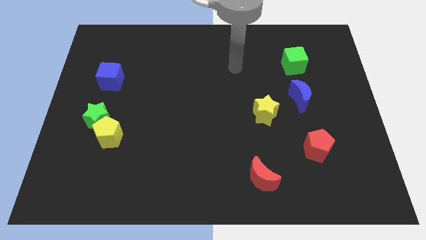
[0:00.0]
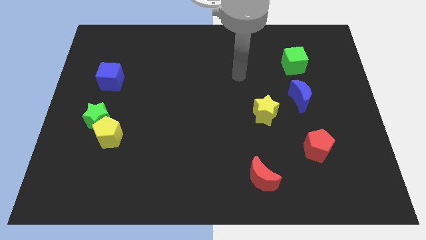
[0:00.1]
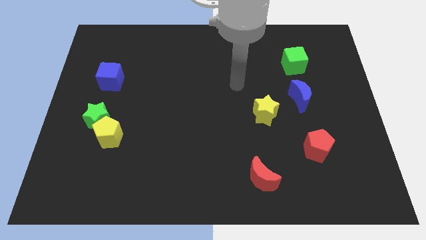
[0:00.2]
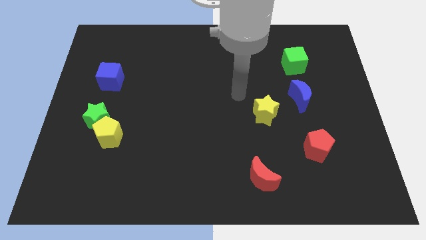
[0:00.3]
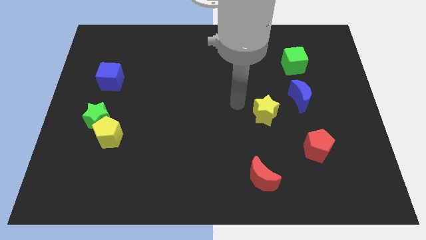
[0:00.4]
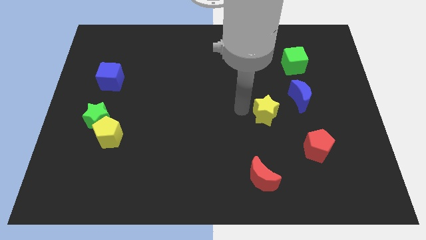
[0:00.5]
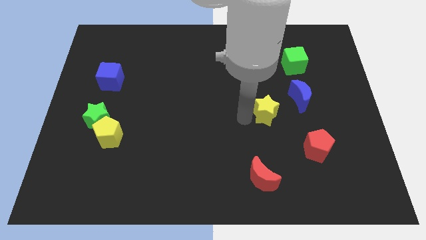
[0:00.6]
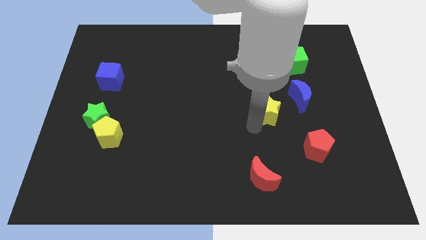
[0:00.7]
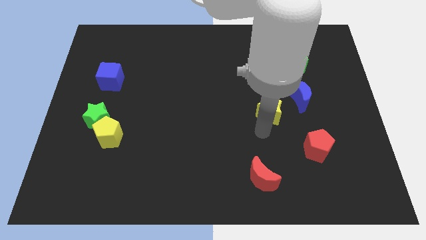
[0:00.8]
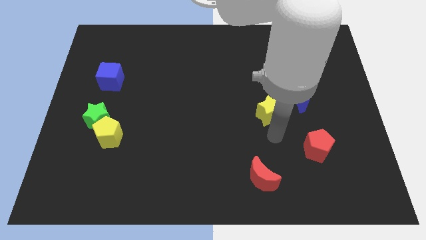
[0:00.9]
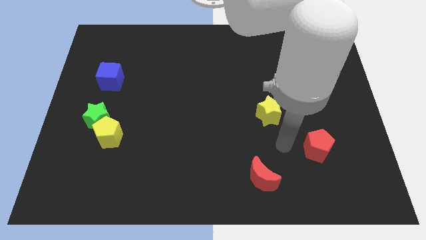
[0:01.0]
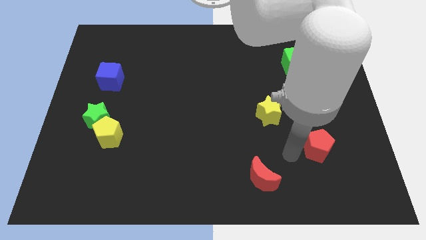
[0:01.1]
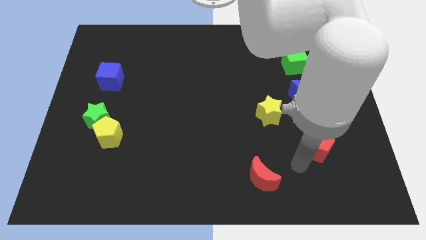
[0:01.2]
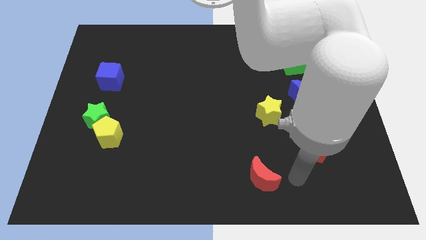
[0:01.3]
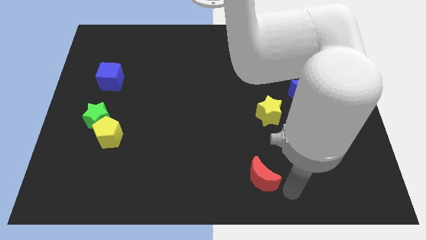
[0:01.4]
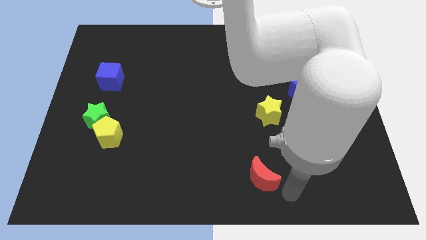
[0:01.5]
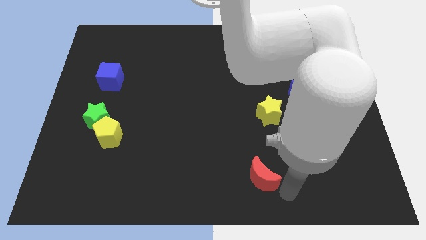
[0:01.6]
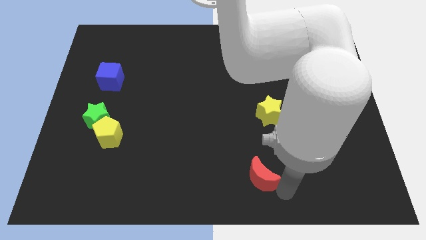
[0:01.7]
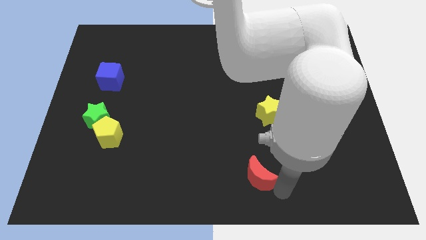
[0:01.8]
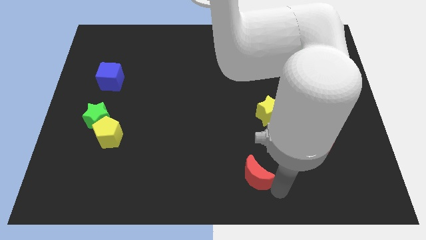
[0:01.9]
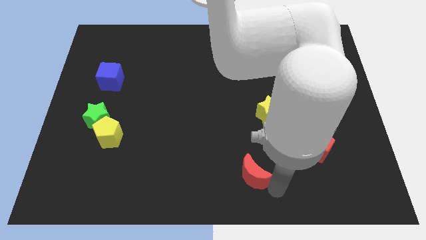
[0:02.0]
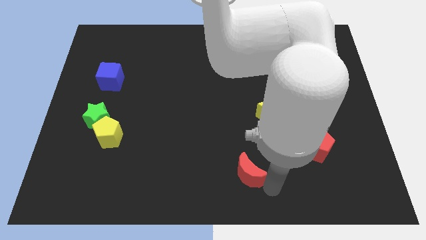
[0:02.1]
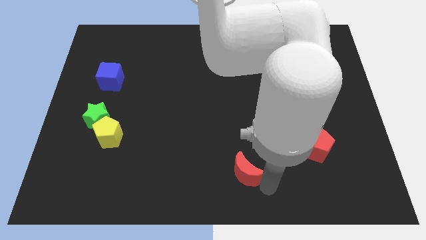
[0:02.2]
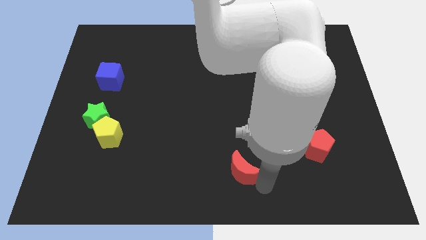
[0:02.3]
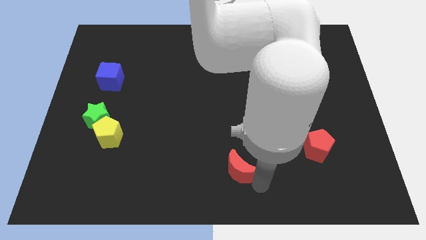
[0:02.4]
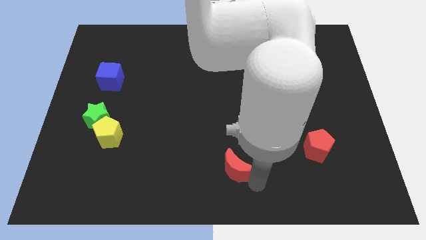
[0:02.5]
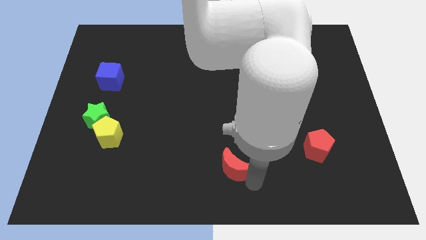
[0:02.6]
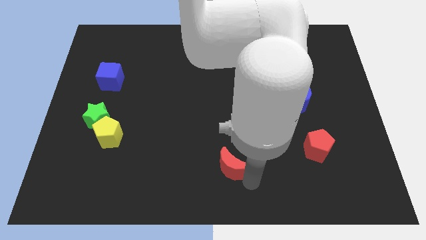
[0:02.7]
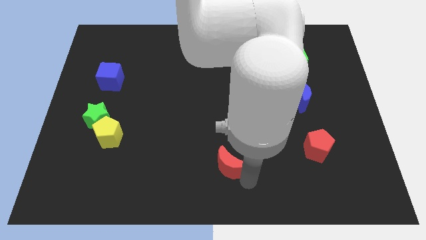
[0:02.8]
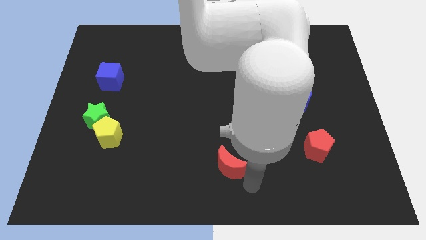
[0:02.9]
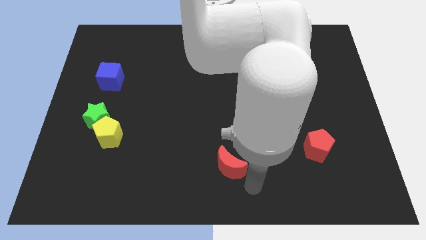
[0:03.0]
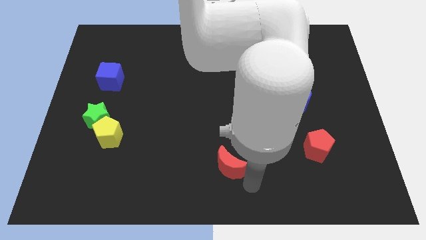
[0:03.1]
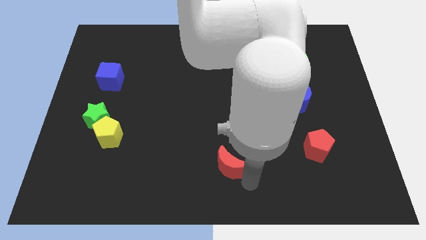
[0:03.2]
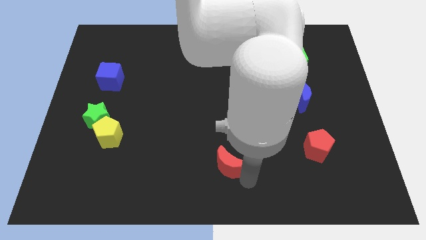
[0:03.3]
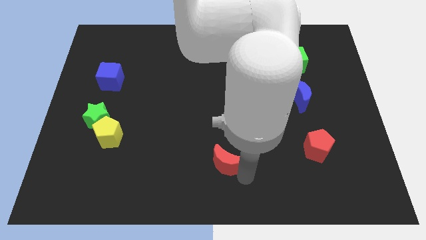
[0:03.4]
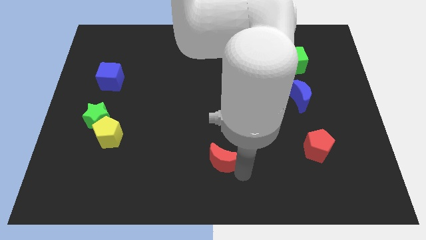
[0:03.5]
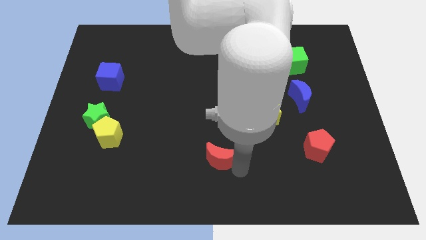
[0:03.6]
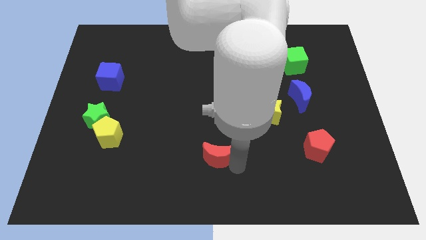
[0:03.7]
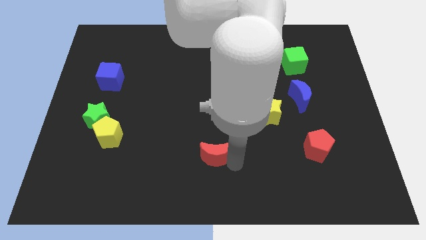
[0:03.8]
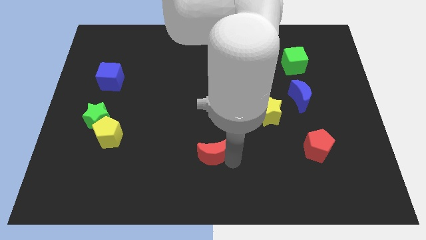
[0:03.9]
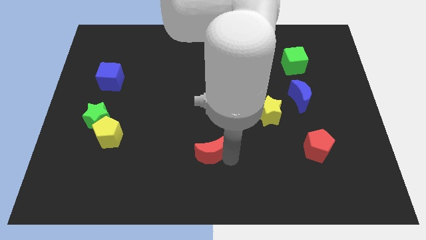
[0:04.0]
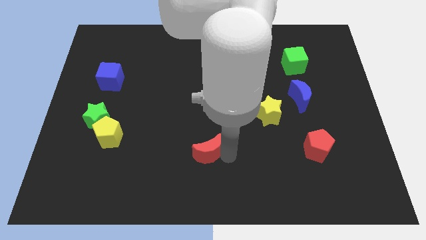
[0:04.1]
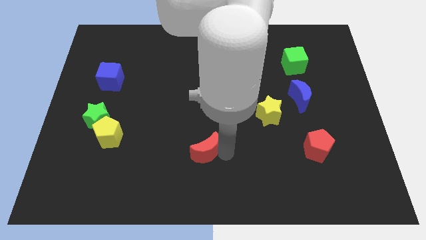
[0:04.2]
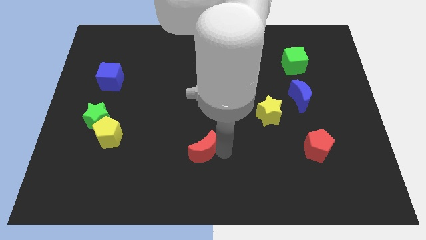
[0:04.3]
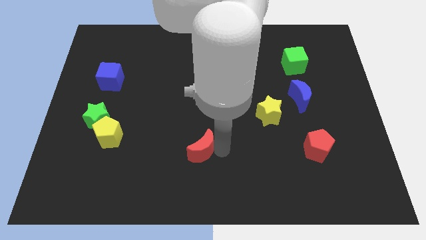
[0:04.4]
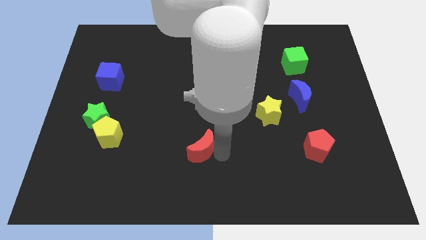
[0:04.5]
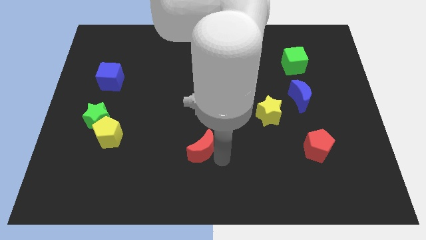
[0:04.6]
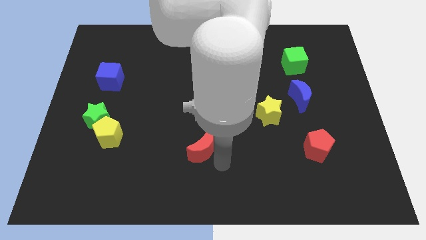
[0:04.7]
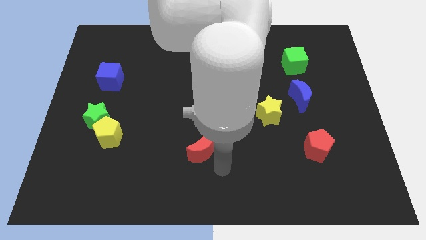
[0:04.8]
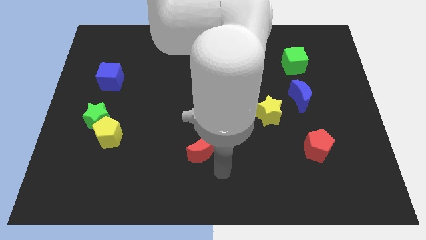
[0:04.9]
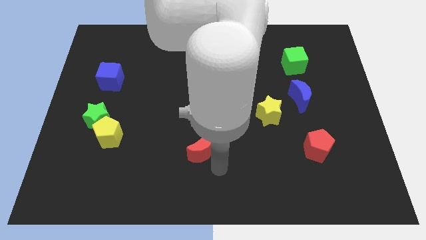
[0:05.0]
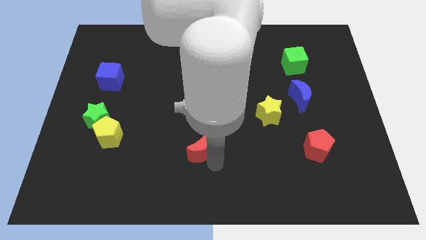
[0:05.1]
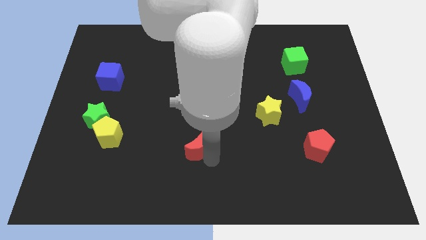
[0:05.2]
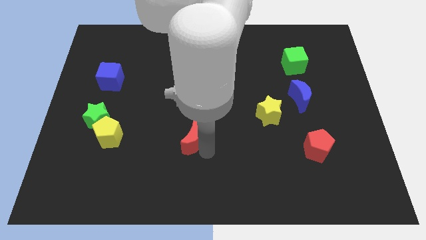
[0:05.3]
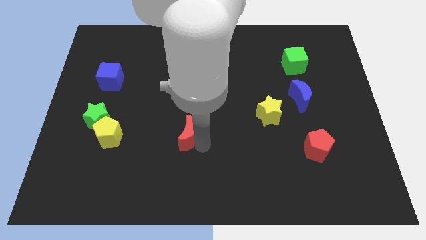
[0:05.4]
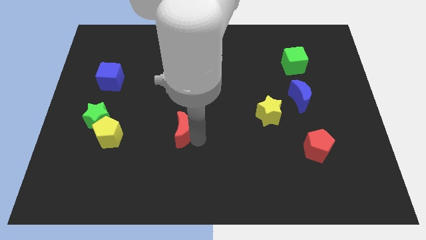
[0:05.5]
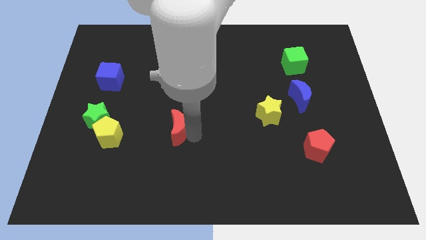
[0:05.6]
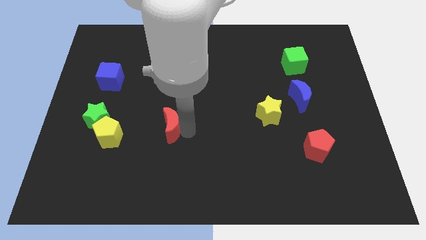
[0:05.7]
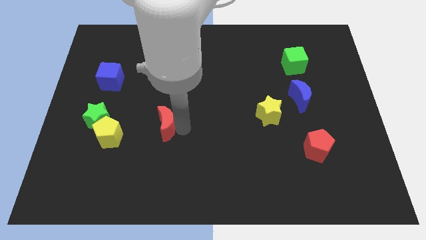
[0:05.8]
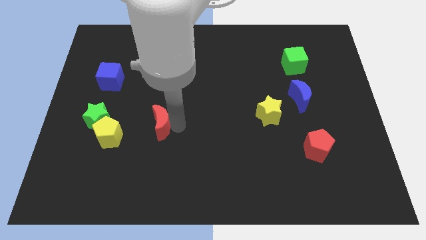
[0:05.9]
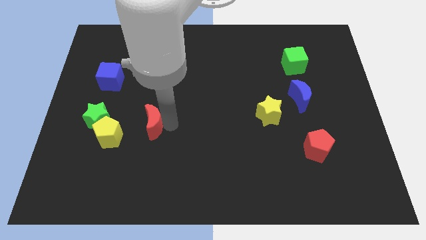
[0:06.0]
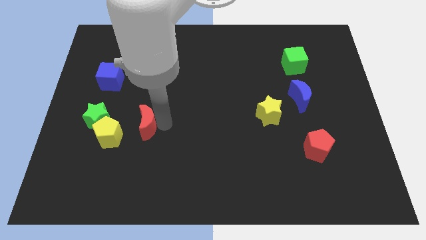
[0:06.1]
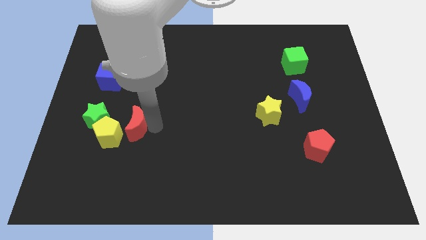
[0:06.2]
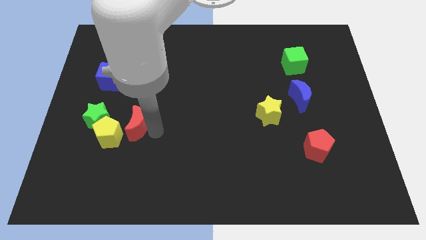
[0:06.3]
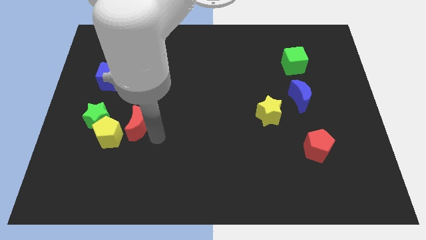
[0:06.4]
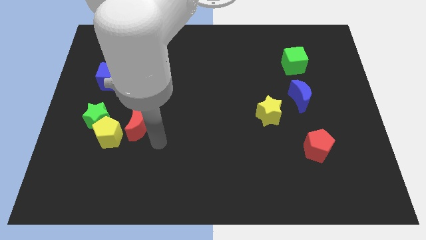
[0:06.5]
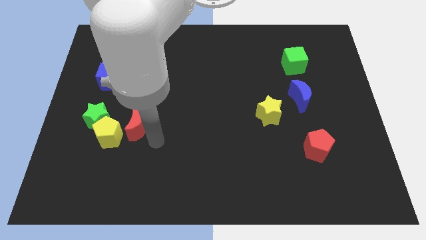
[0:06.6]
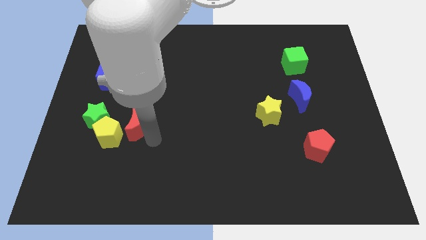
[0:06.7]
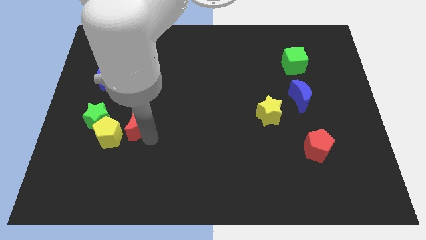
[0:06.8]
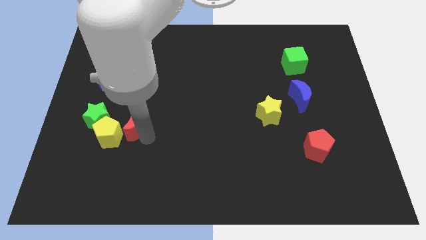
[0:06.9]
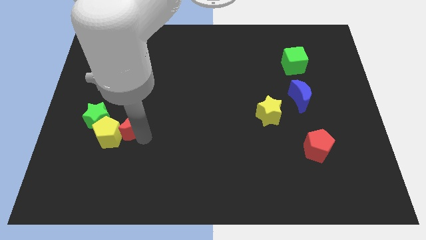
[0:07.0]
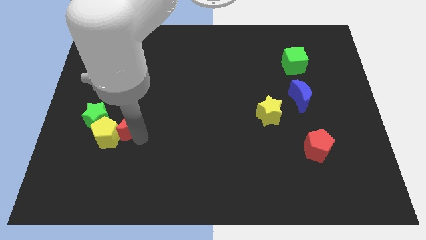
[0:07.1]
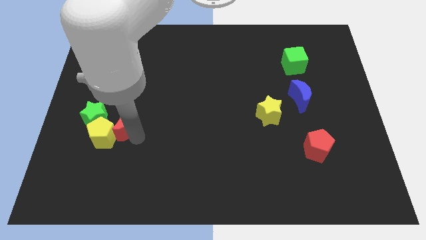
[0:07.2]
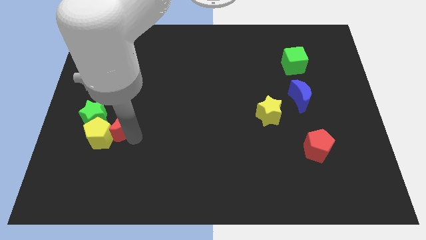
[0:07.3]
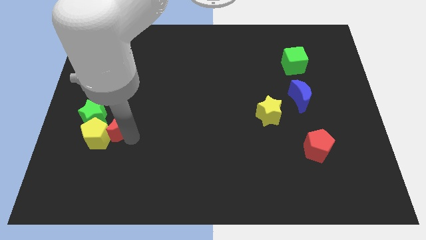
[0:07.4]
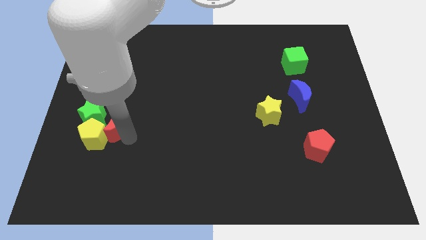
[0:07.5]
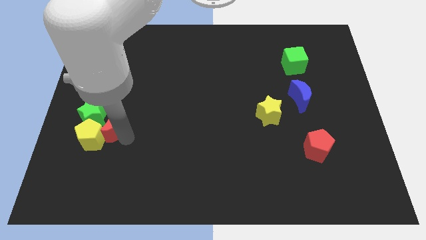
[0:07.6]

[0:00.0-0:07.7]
put the red moon close to the green star
